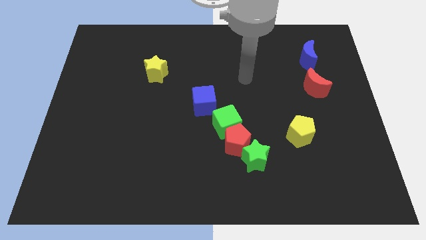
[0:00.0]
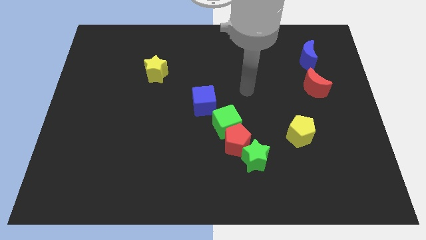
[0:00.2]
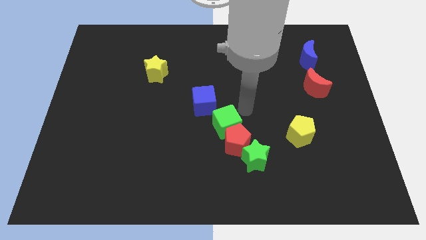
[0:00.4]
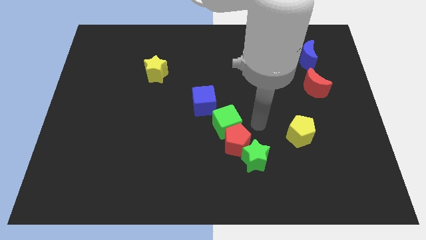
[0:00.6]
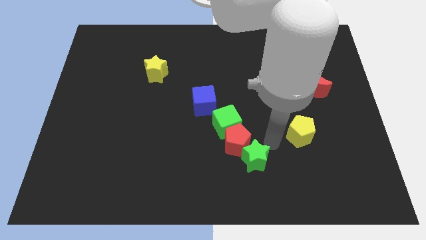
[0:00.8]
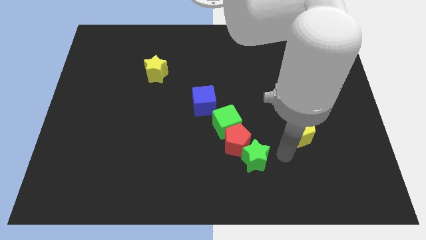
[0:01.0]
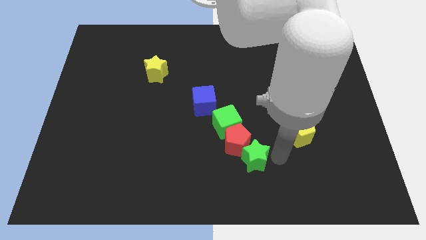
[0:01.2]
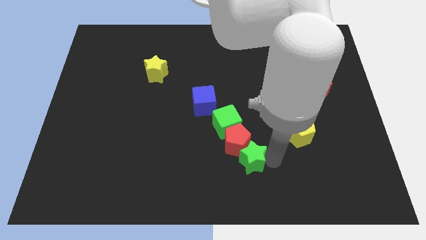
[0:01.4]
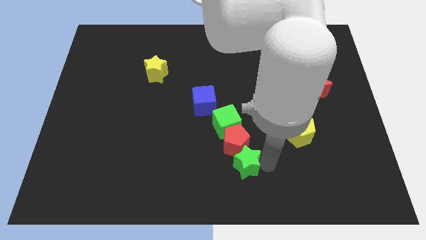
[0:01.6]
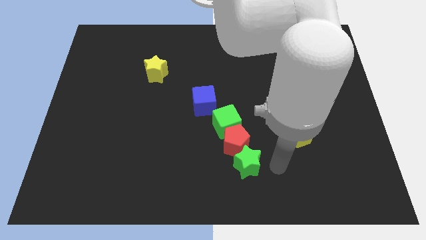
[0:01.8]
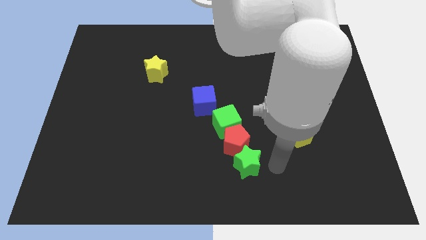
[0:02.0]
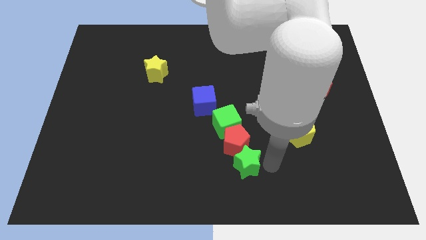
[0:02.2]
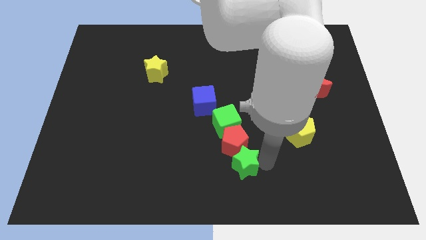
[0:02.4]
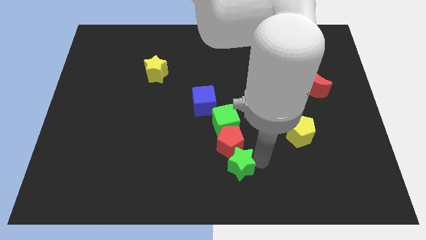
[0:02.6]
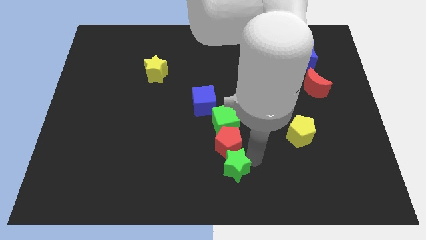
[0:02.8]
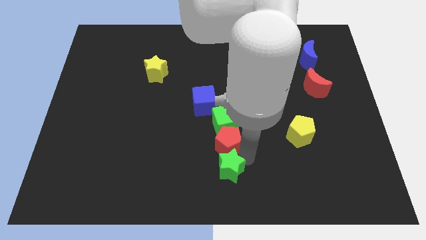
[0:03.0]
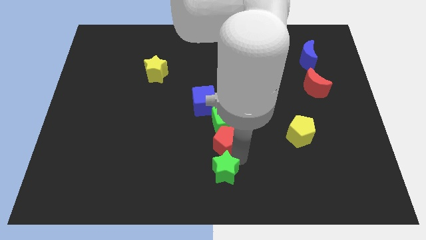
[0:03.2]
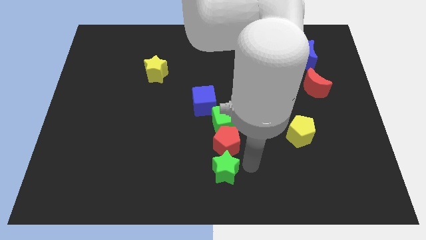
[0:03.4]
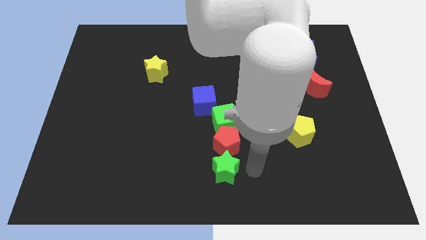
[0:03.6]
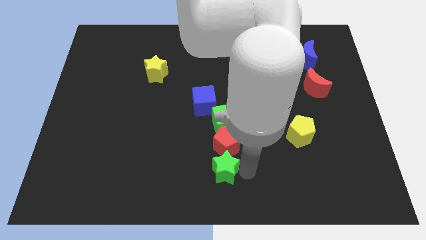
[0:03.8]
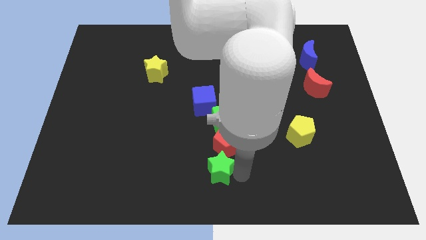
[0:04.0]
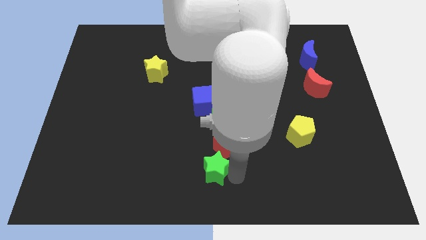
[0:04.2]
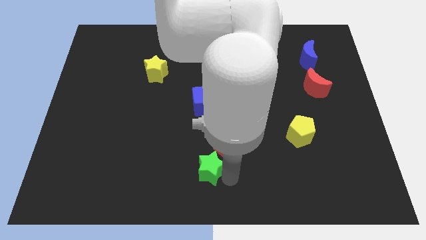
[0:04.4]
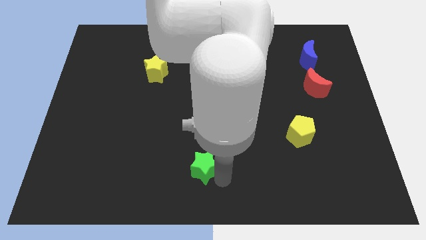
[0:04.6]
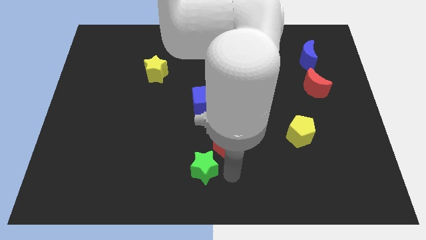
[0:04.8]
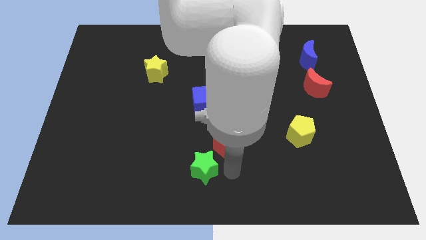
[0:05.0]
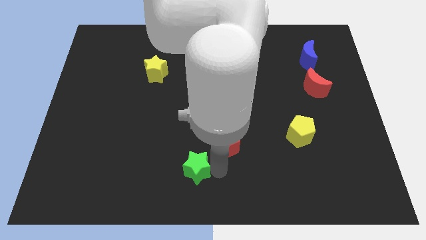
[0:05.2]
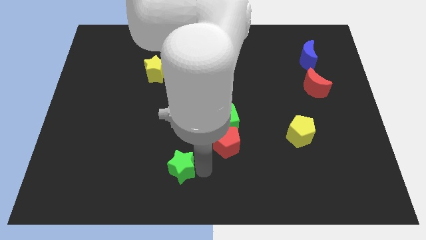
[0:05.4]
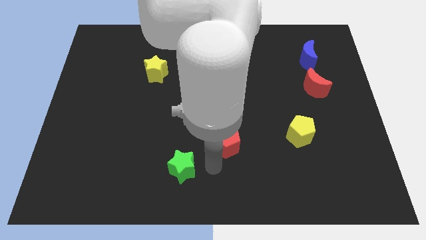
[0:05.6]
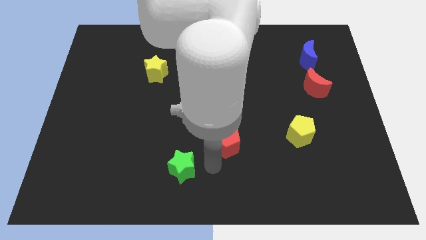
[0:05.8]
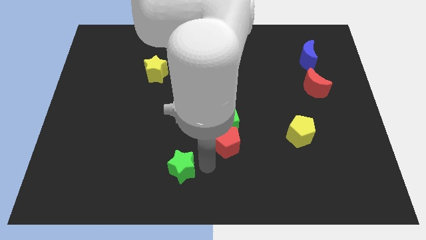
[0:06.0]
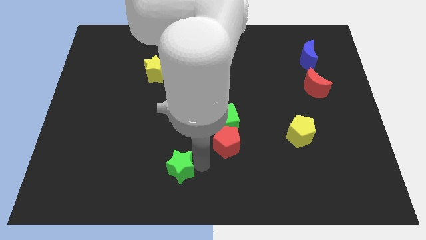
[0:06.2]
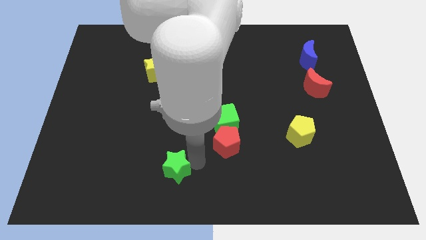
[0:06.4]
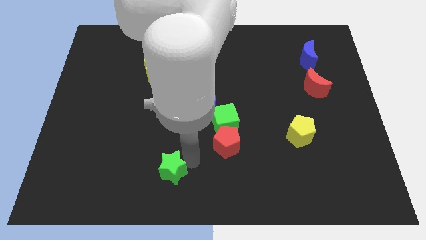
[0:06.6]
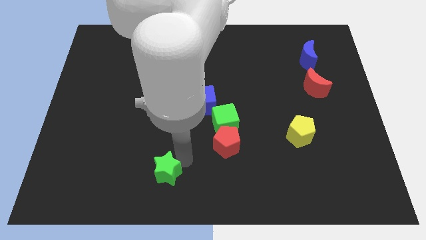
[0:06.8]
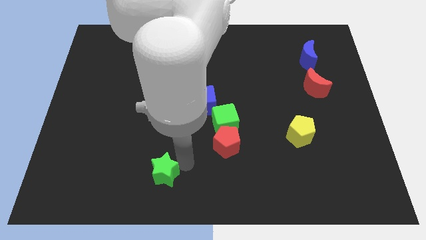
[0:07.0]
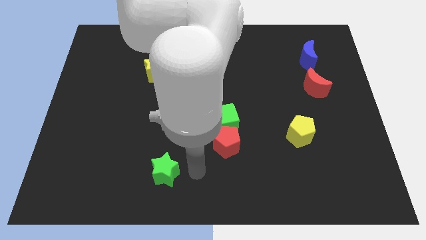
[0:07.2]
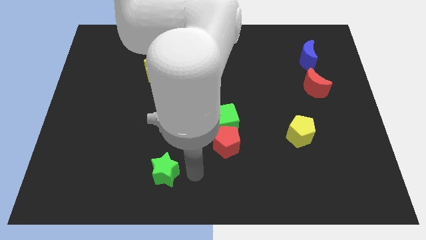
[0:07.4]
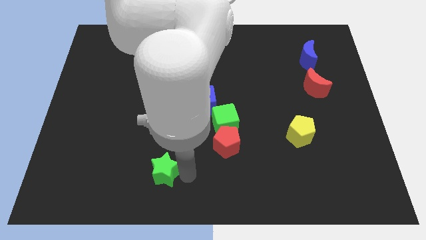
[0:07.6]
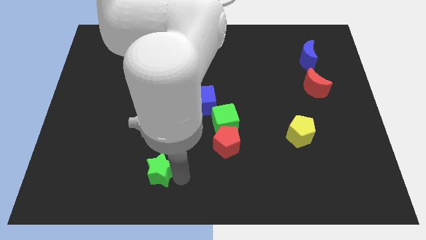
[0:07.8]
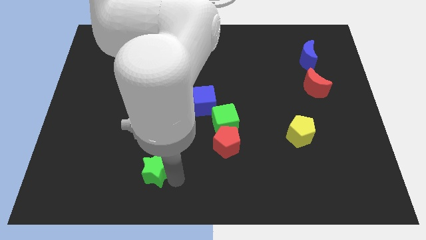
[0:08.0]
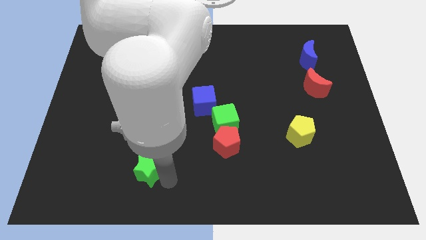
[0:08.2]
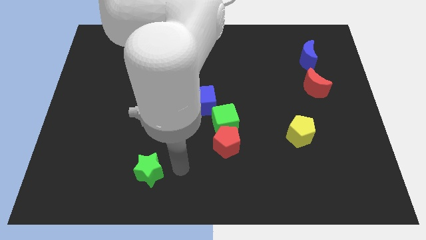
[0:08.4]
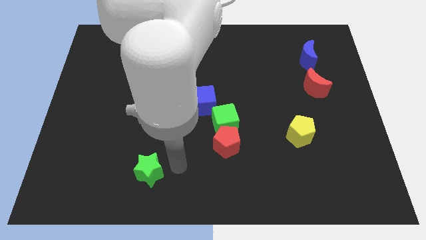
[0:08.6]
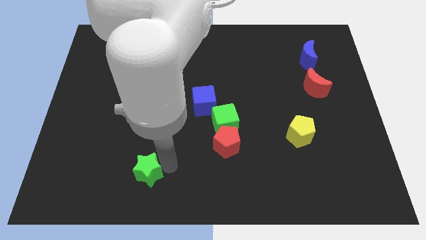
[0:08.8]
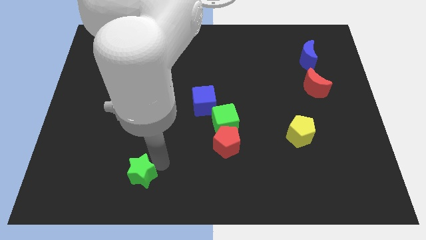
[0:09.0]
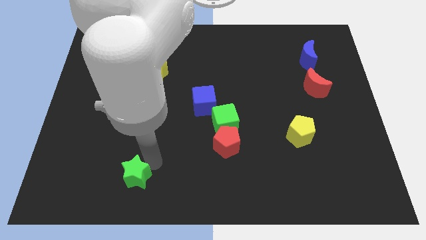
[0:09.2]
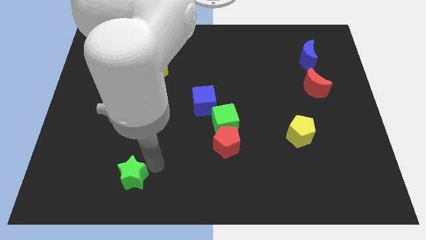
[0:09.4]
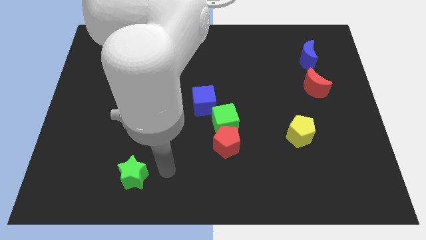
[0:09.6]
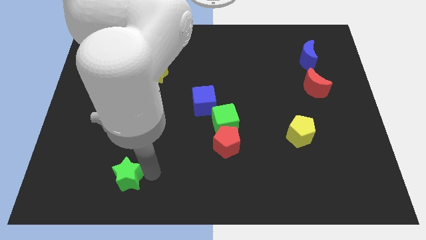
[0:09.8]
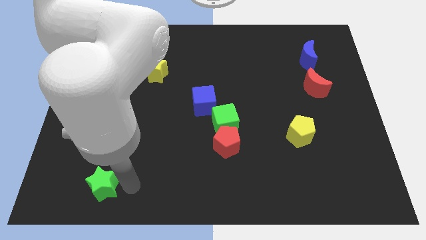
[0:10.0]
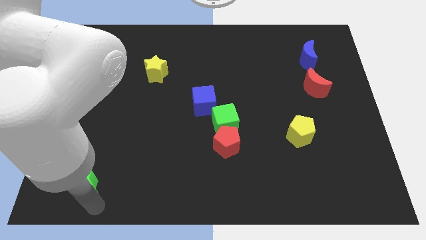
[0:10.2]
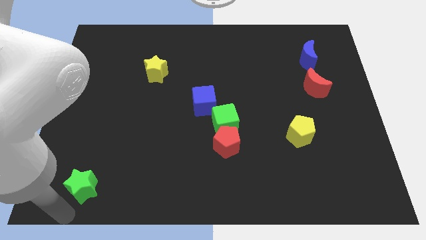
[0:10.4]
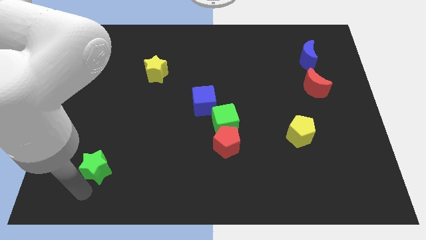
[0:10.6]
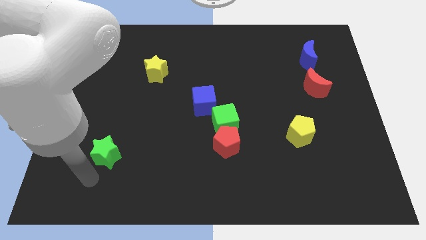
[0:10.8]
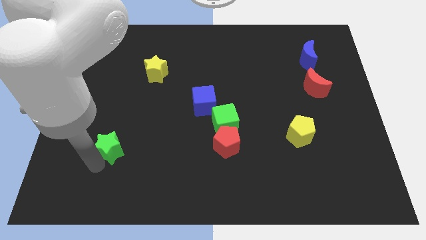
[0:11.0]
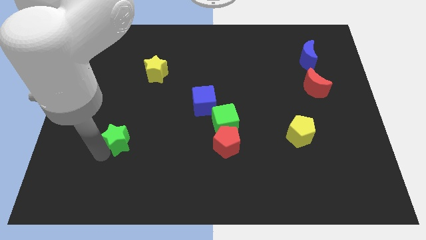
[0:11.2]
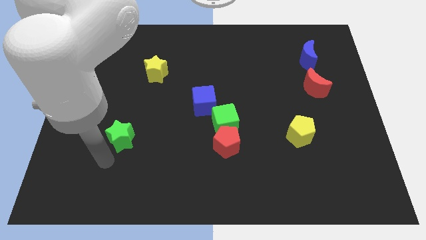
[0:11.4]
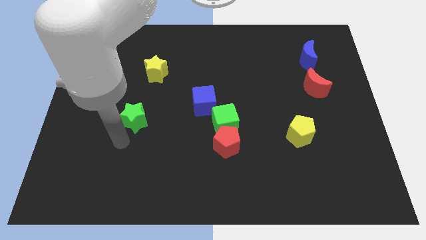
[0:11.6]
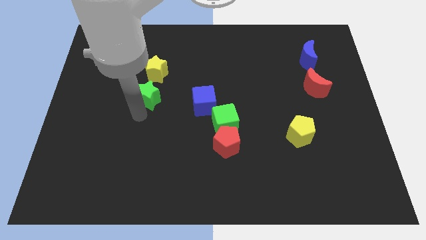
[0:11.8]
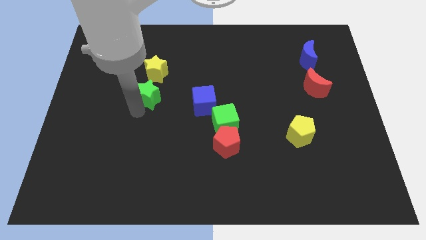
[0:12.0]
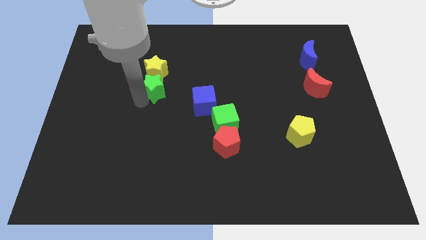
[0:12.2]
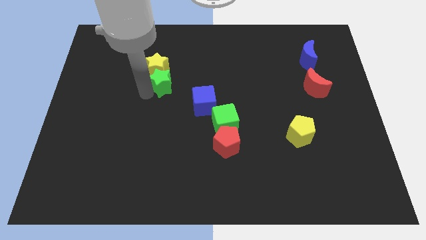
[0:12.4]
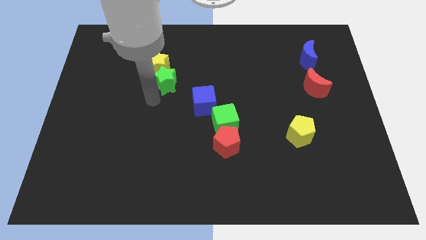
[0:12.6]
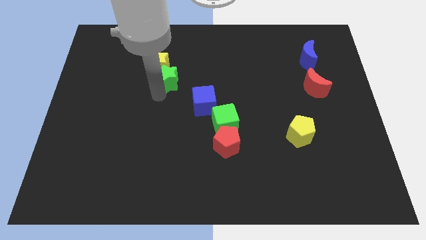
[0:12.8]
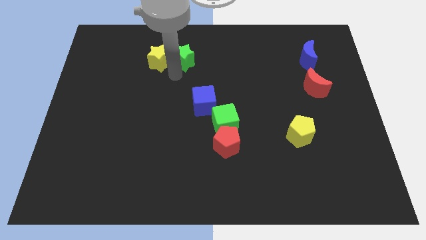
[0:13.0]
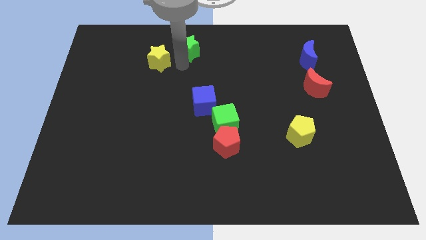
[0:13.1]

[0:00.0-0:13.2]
move the green star to the top

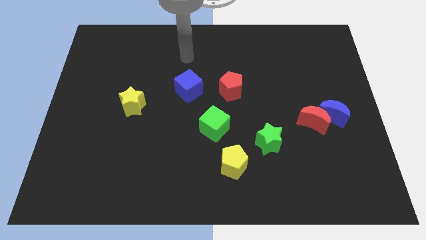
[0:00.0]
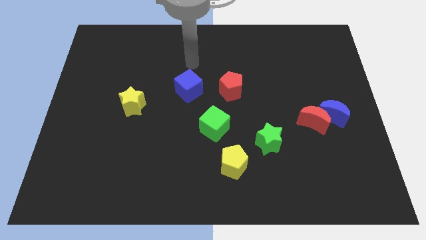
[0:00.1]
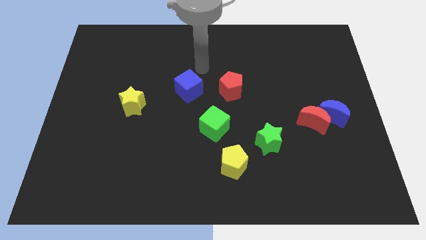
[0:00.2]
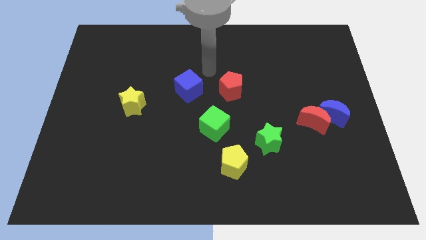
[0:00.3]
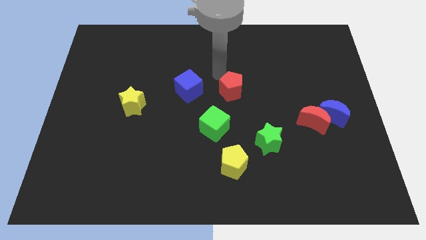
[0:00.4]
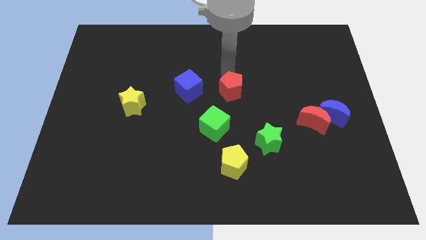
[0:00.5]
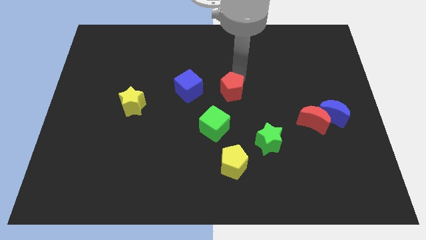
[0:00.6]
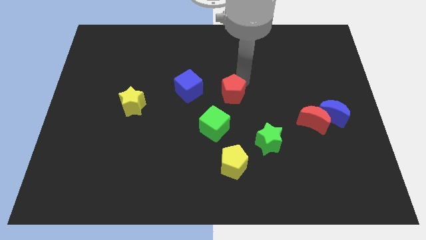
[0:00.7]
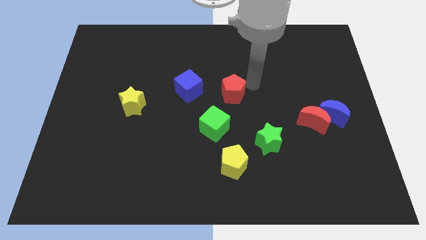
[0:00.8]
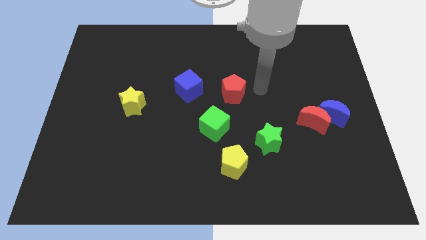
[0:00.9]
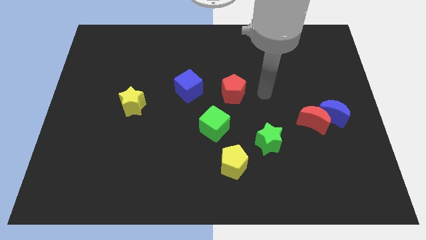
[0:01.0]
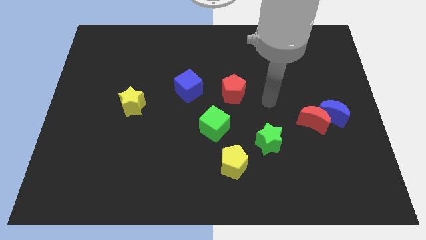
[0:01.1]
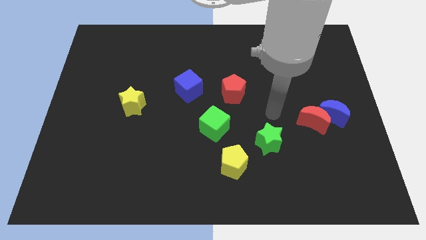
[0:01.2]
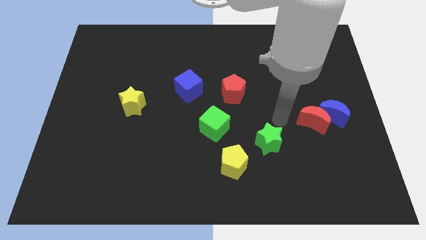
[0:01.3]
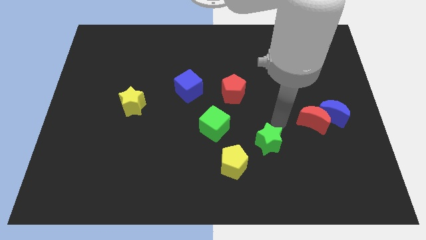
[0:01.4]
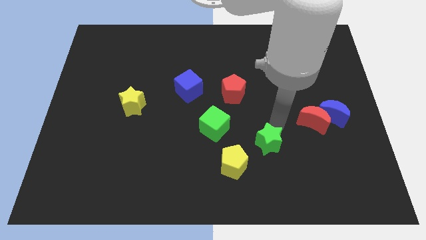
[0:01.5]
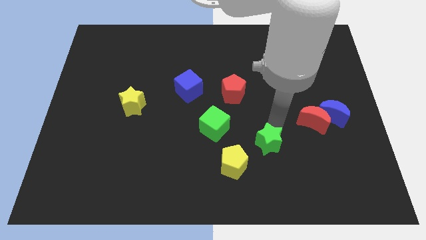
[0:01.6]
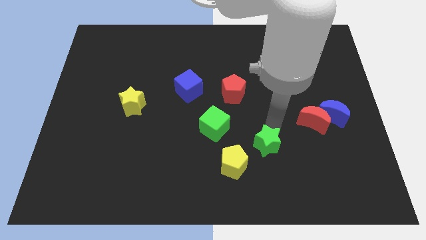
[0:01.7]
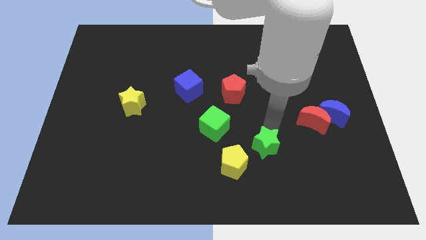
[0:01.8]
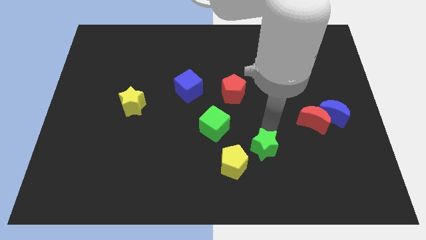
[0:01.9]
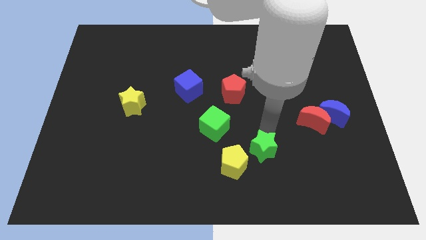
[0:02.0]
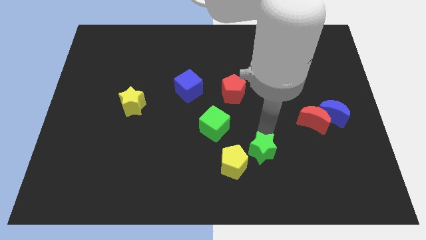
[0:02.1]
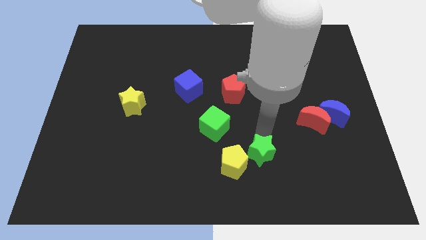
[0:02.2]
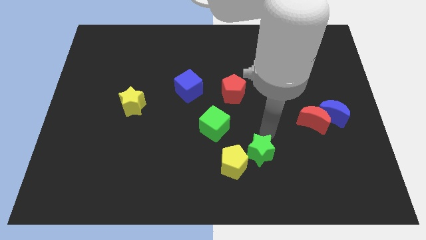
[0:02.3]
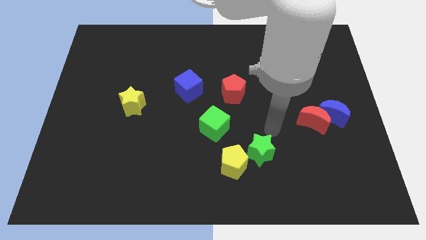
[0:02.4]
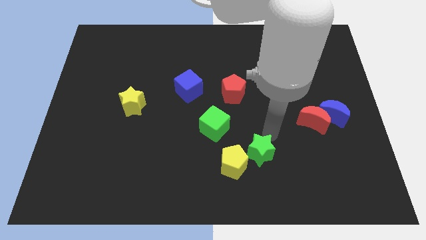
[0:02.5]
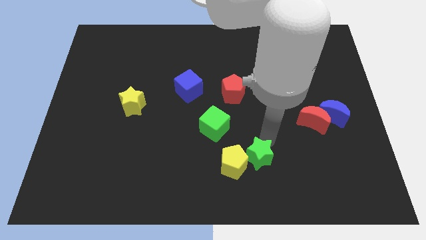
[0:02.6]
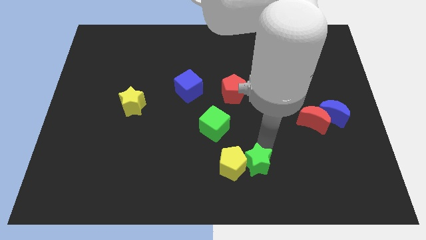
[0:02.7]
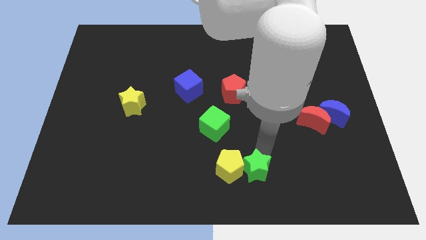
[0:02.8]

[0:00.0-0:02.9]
slide the green star to the bottom
